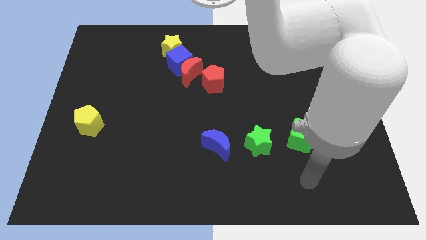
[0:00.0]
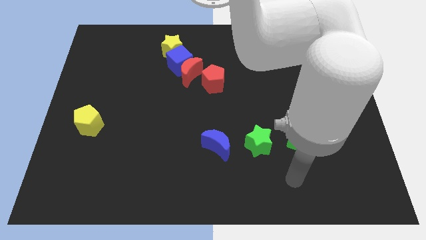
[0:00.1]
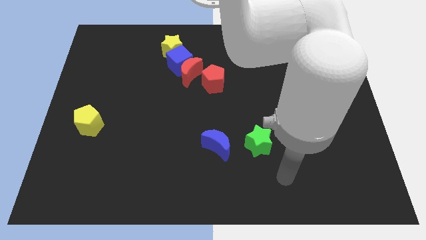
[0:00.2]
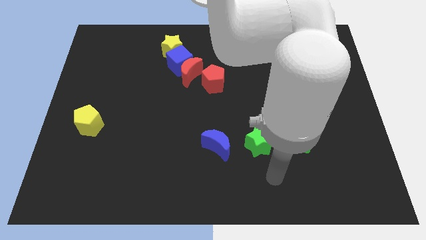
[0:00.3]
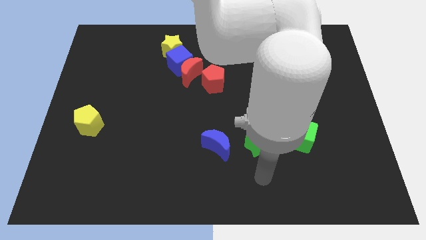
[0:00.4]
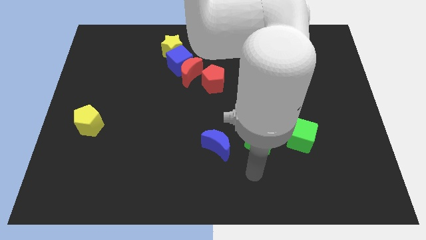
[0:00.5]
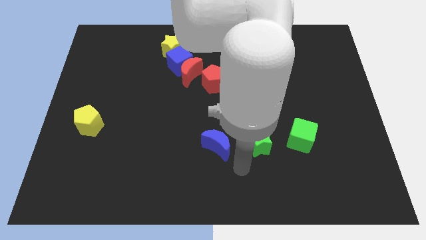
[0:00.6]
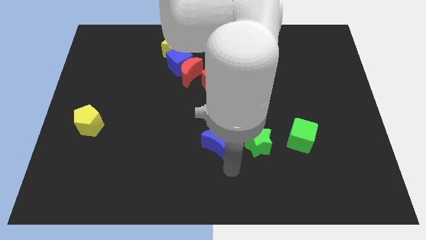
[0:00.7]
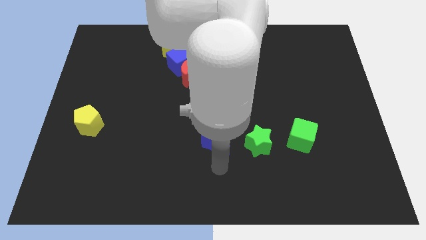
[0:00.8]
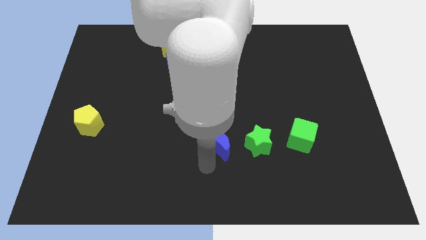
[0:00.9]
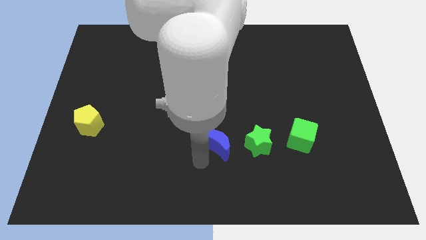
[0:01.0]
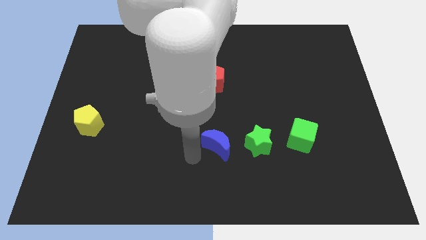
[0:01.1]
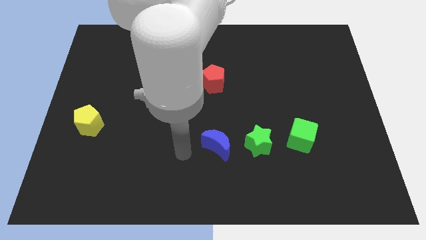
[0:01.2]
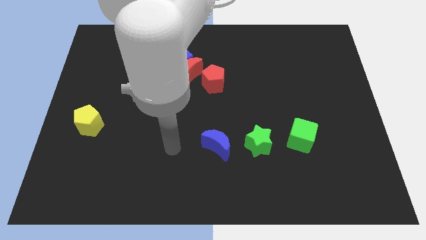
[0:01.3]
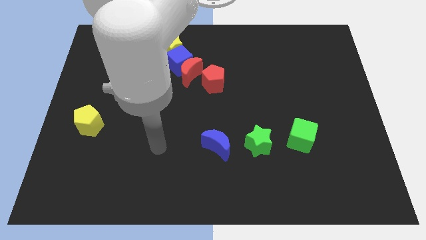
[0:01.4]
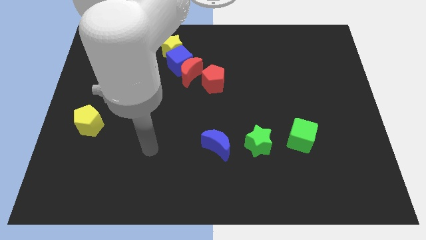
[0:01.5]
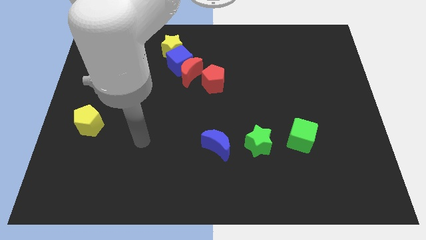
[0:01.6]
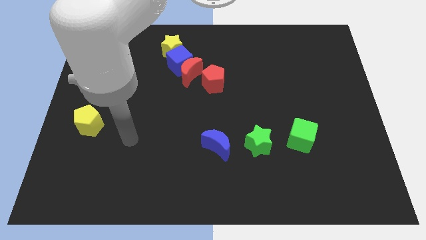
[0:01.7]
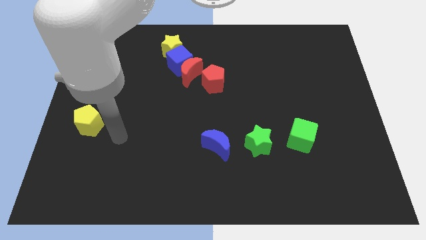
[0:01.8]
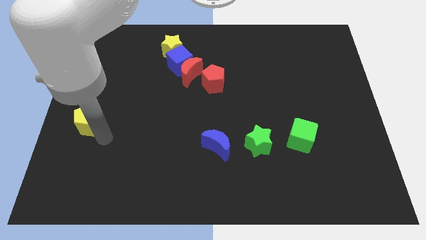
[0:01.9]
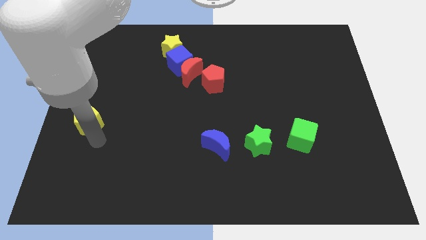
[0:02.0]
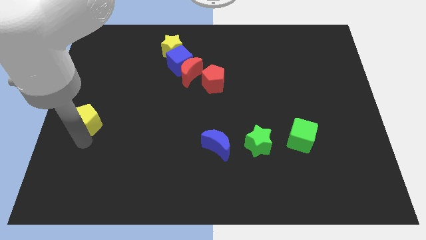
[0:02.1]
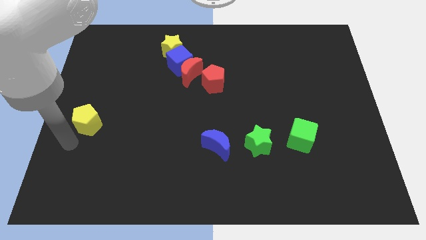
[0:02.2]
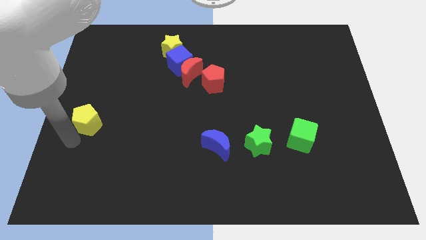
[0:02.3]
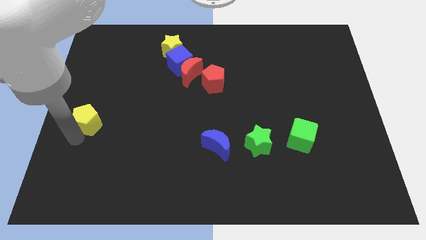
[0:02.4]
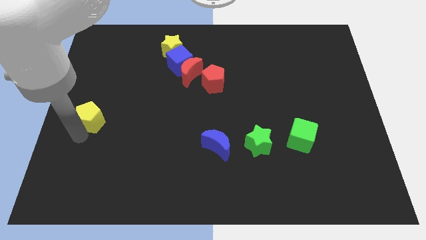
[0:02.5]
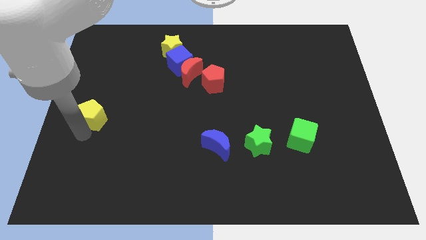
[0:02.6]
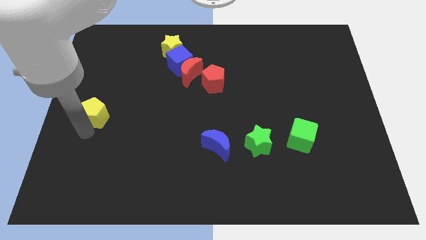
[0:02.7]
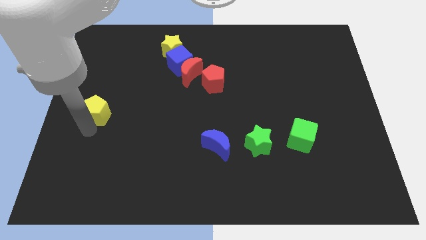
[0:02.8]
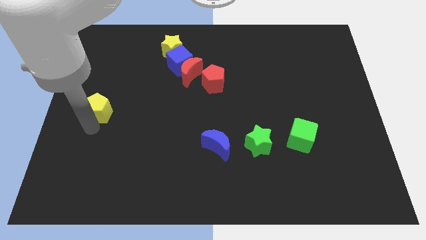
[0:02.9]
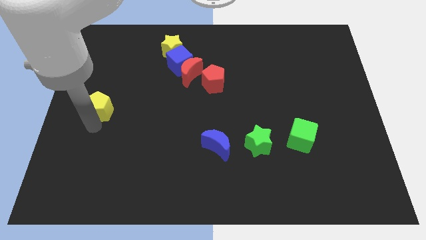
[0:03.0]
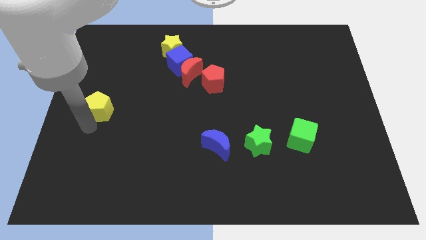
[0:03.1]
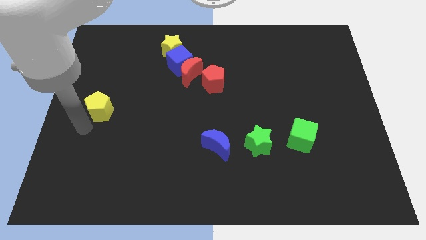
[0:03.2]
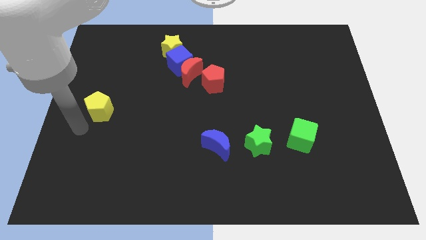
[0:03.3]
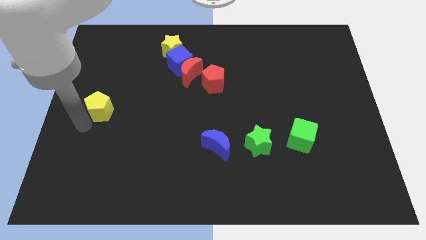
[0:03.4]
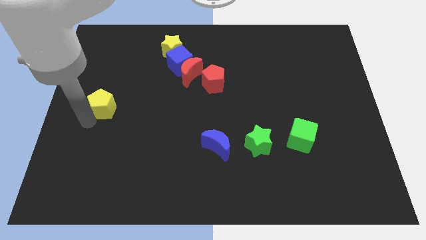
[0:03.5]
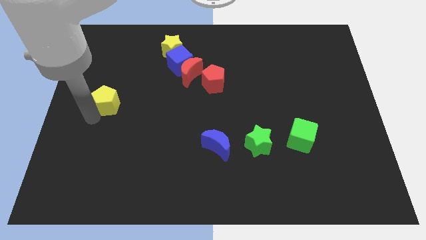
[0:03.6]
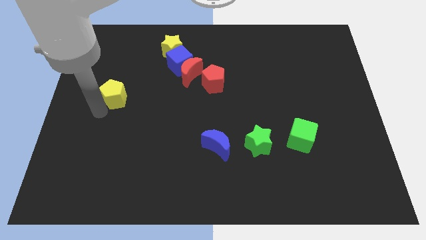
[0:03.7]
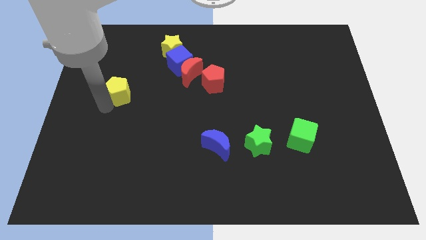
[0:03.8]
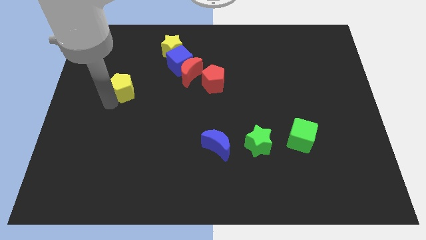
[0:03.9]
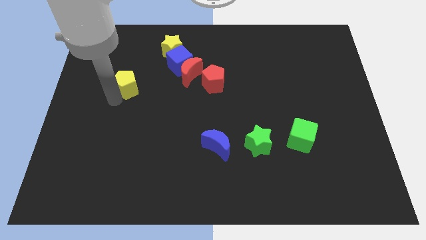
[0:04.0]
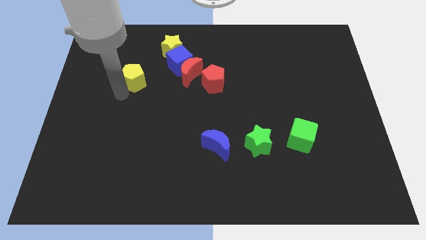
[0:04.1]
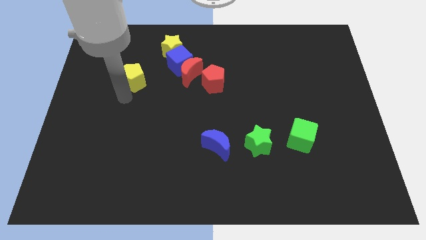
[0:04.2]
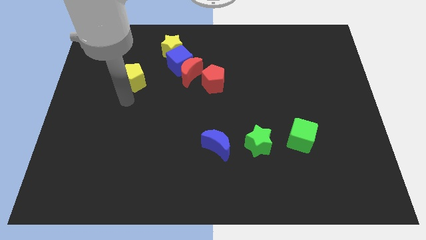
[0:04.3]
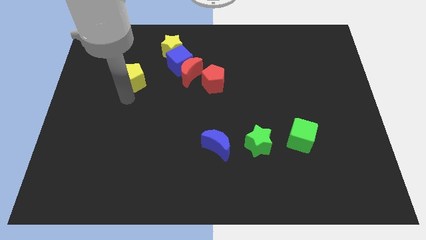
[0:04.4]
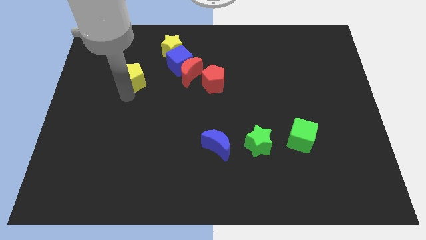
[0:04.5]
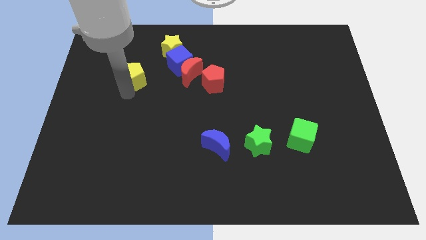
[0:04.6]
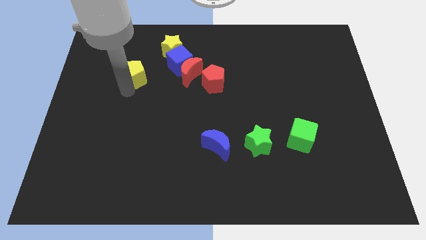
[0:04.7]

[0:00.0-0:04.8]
slide the yellow pentagon to the left side of the blue cube

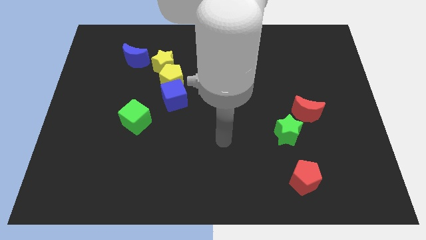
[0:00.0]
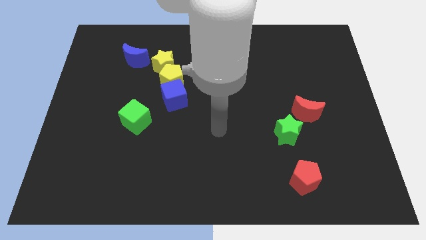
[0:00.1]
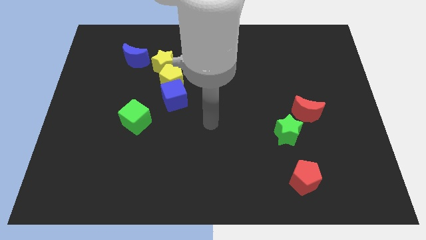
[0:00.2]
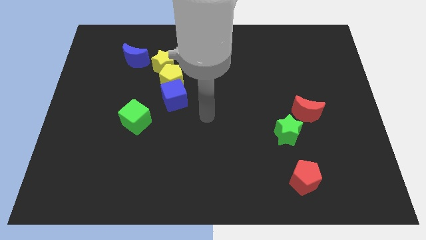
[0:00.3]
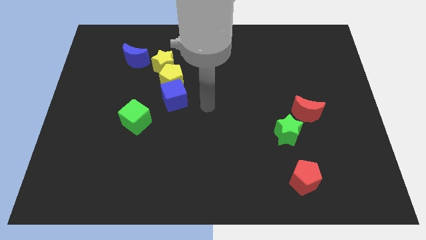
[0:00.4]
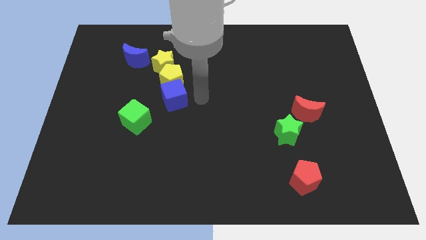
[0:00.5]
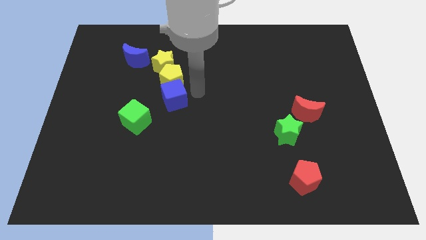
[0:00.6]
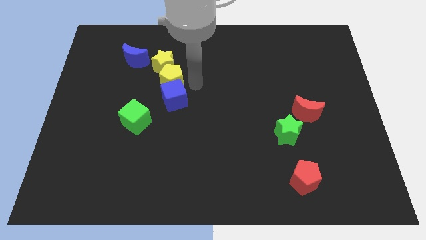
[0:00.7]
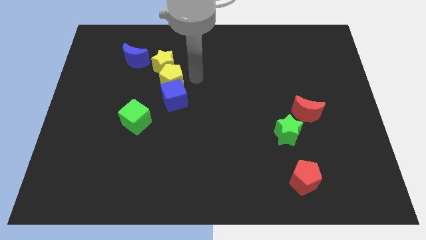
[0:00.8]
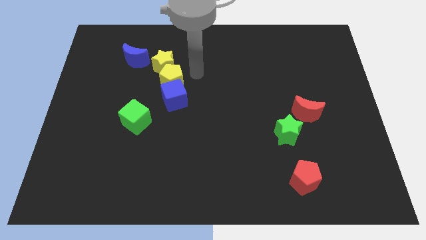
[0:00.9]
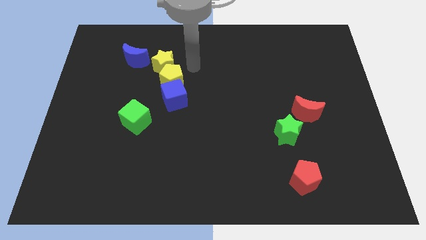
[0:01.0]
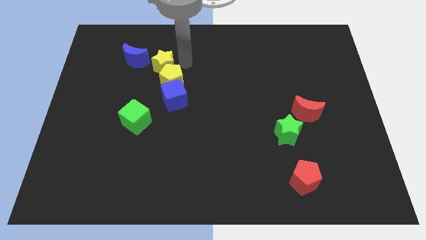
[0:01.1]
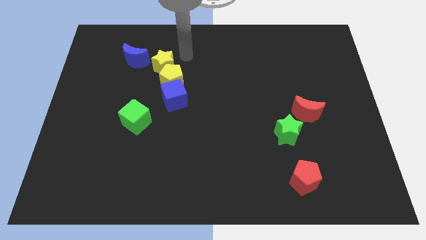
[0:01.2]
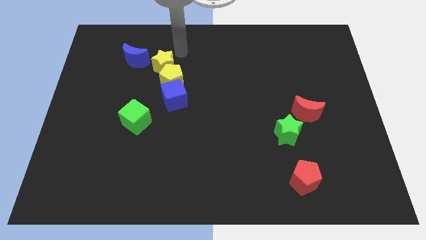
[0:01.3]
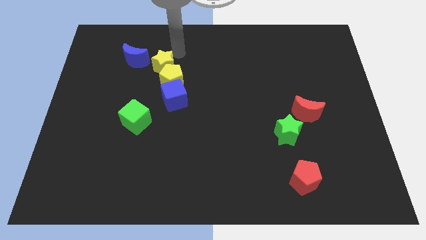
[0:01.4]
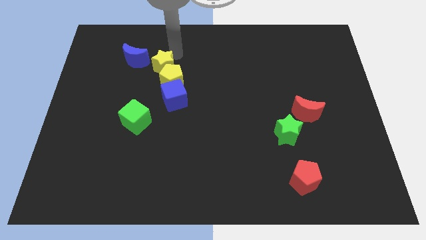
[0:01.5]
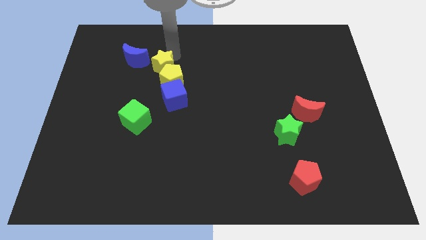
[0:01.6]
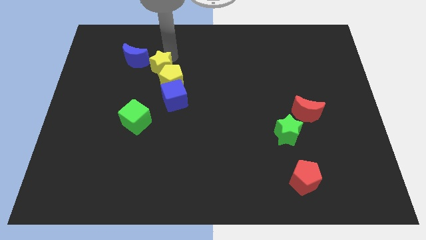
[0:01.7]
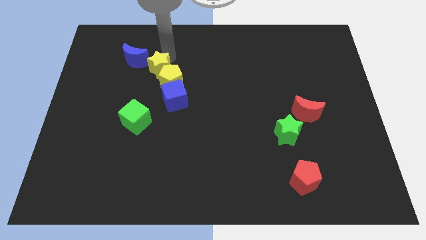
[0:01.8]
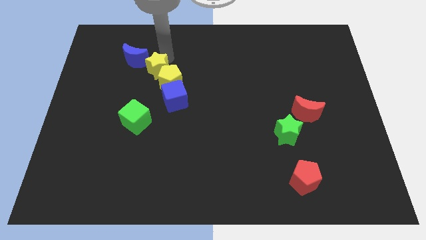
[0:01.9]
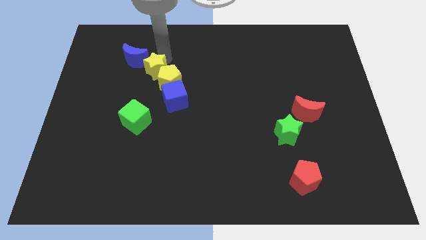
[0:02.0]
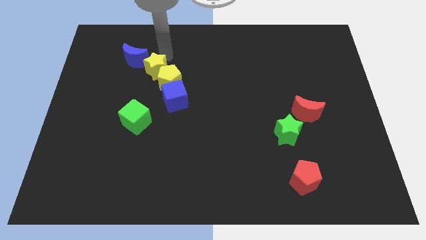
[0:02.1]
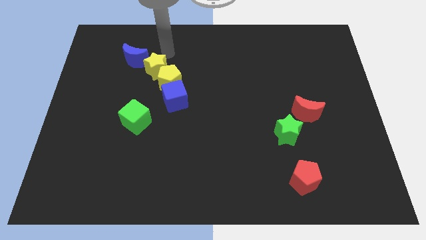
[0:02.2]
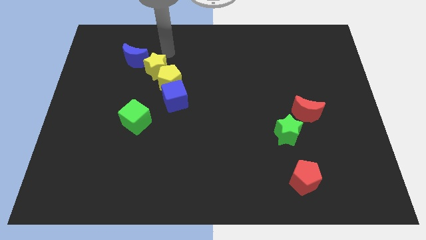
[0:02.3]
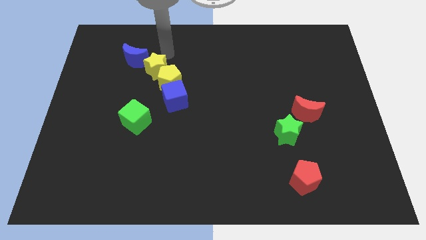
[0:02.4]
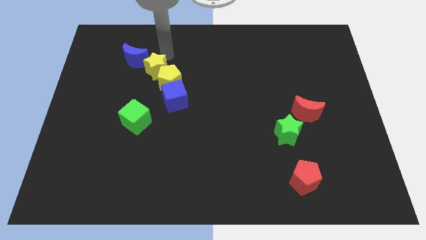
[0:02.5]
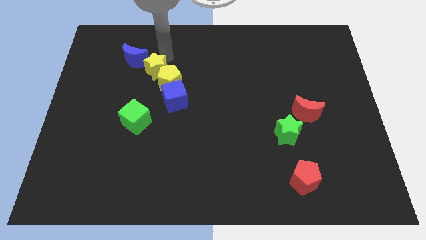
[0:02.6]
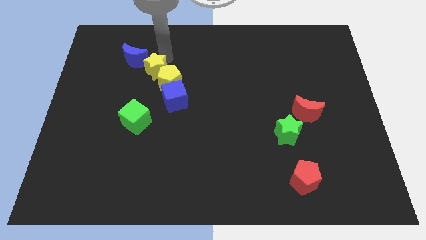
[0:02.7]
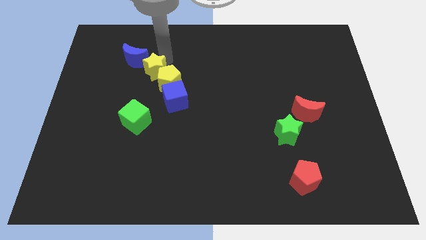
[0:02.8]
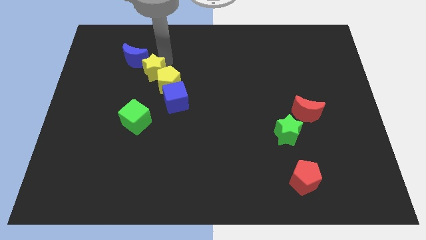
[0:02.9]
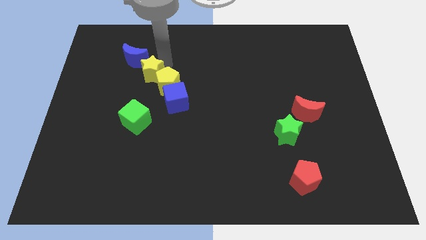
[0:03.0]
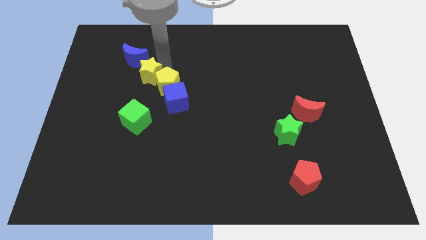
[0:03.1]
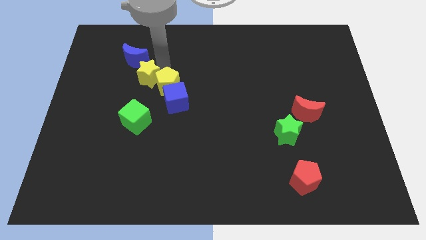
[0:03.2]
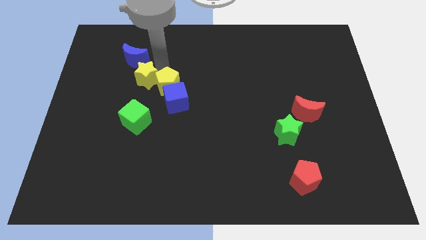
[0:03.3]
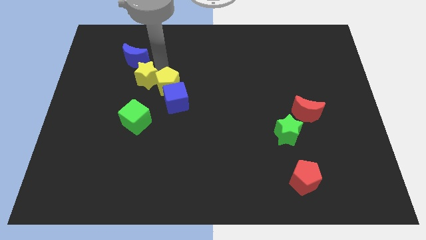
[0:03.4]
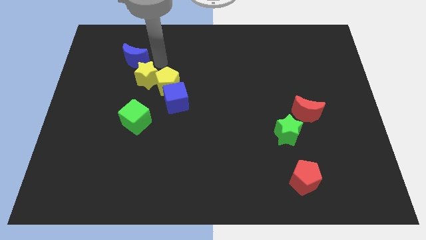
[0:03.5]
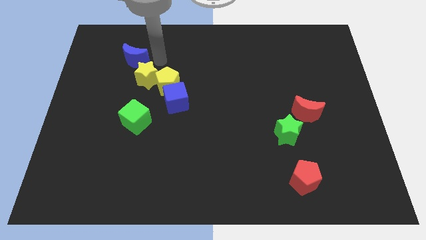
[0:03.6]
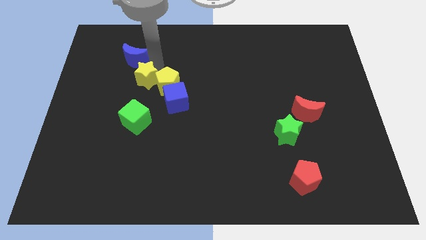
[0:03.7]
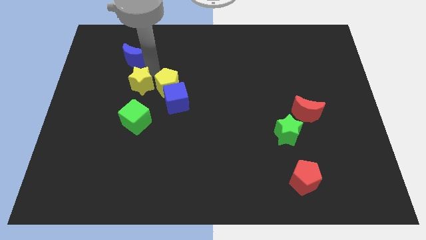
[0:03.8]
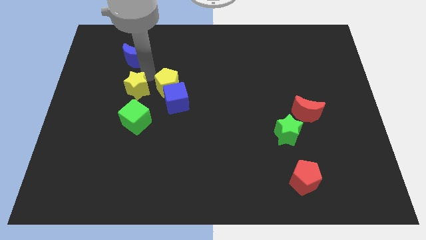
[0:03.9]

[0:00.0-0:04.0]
move the yellow star to the left side of the blue cube
